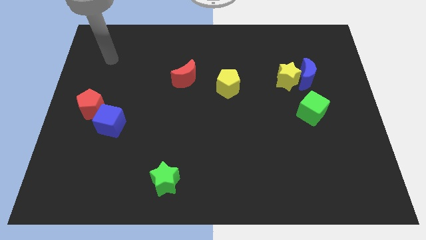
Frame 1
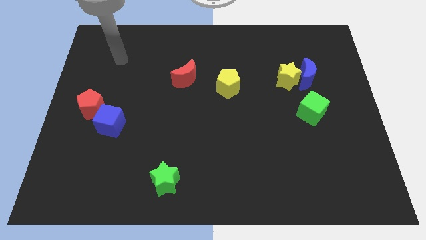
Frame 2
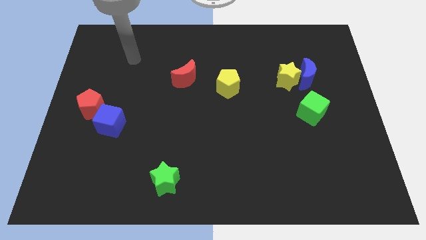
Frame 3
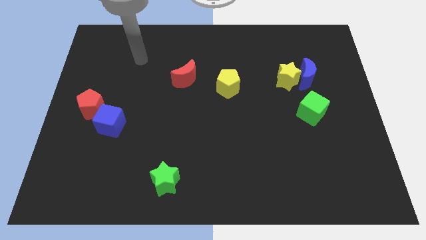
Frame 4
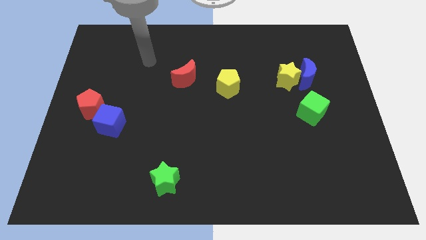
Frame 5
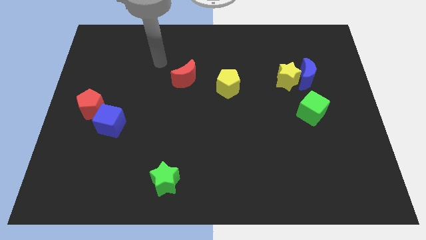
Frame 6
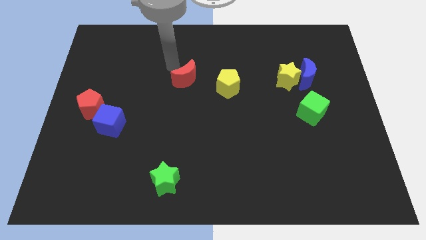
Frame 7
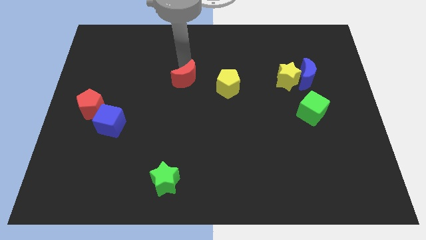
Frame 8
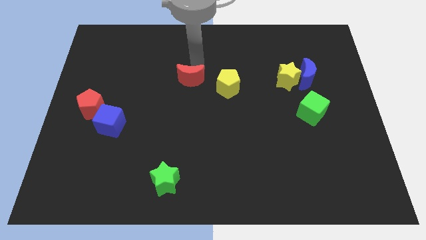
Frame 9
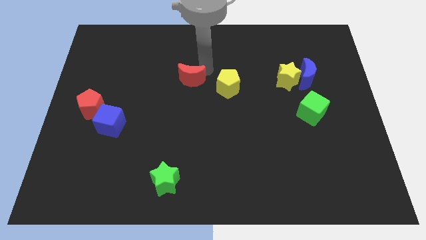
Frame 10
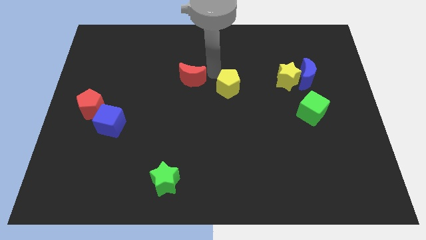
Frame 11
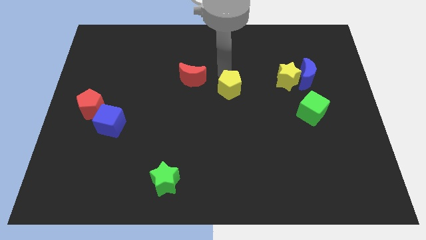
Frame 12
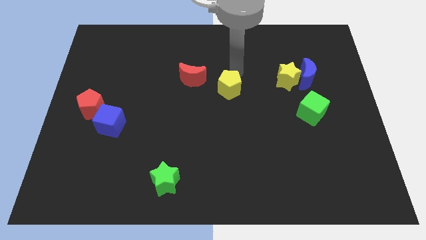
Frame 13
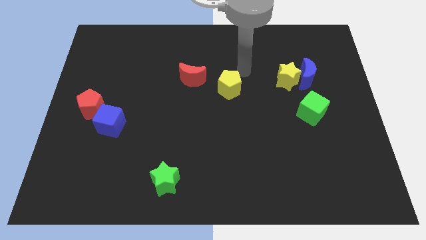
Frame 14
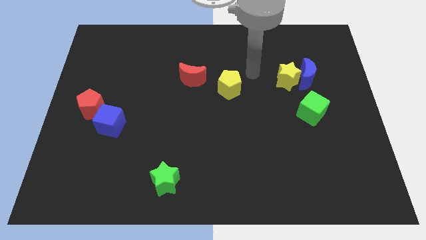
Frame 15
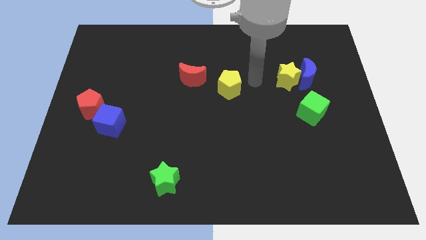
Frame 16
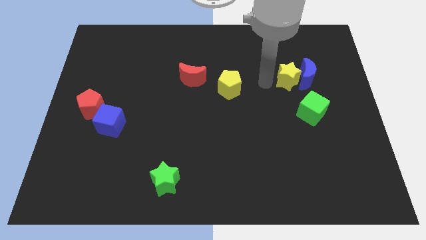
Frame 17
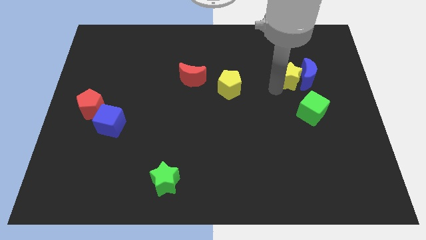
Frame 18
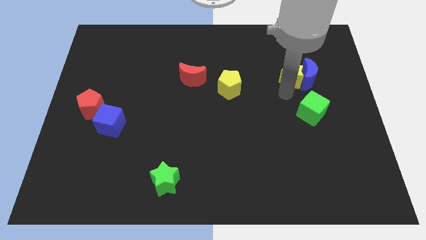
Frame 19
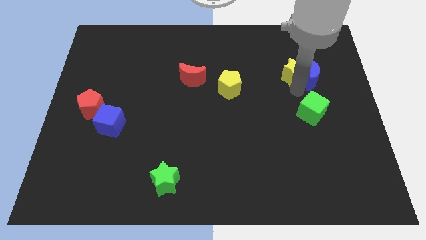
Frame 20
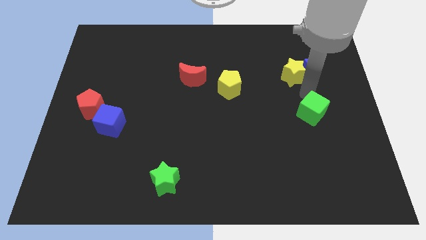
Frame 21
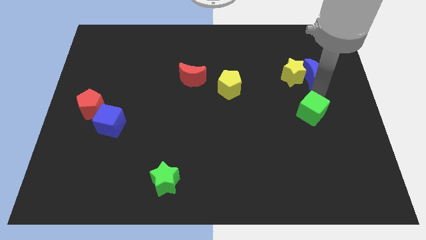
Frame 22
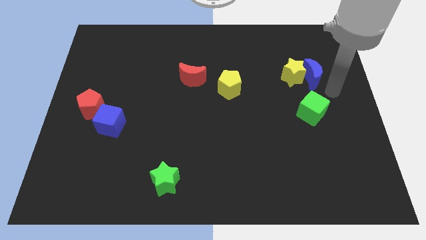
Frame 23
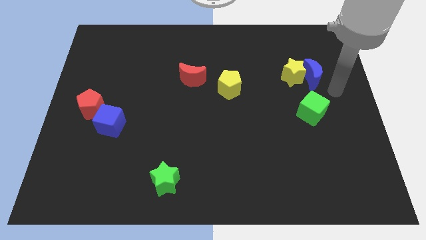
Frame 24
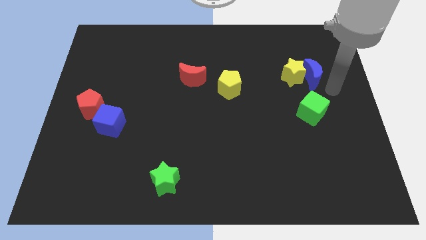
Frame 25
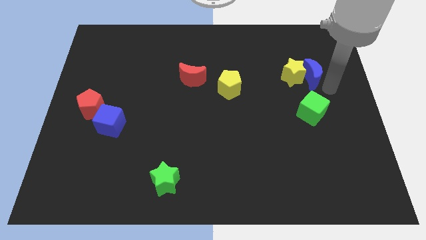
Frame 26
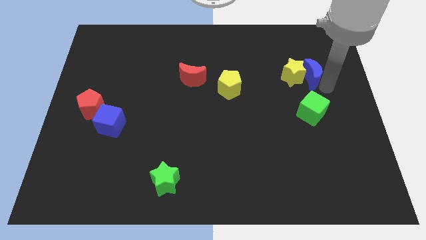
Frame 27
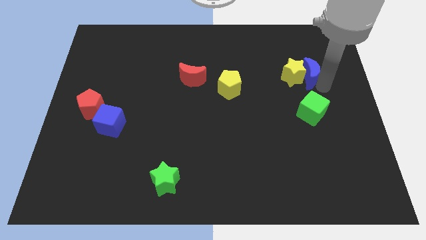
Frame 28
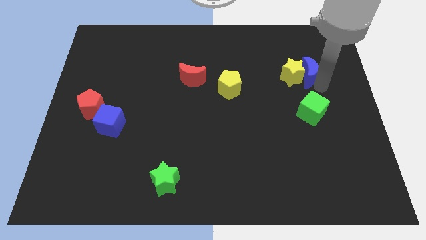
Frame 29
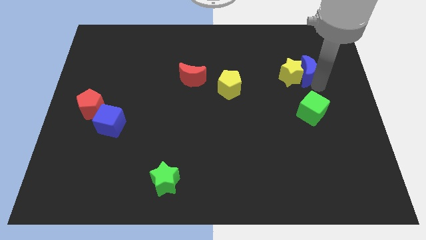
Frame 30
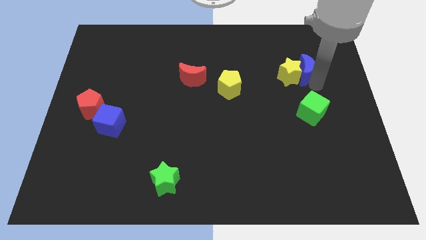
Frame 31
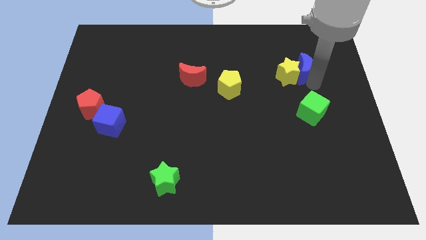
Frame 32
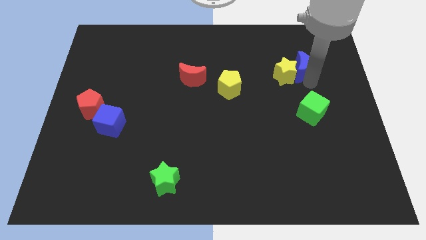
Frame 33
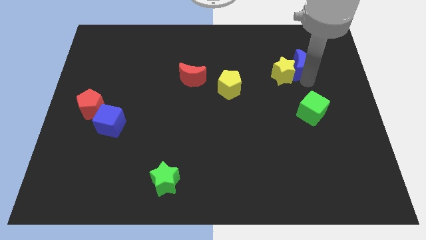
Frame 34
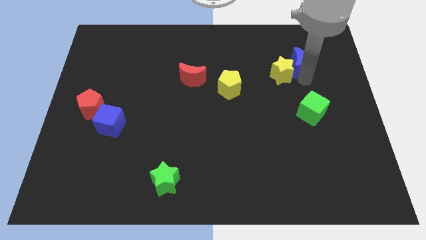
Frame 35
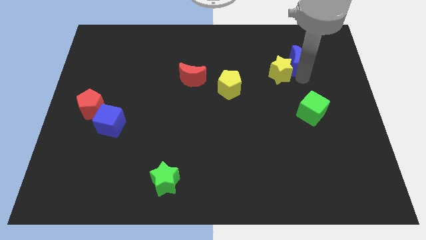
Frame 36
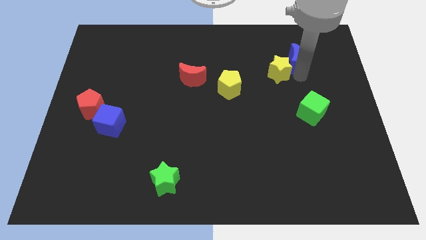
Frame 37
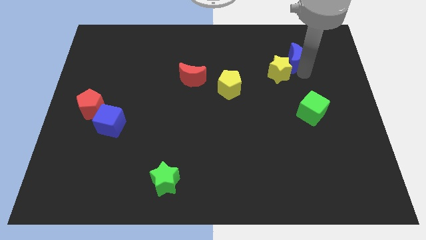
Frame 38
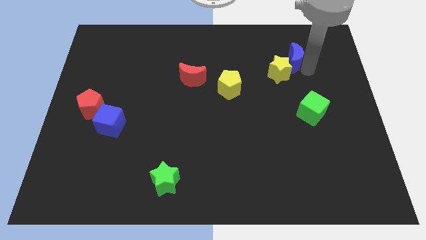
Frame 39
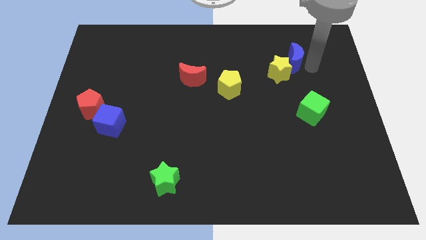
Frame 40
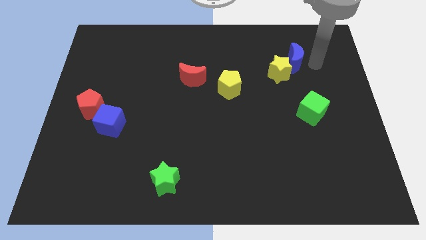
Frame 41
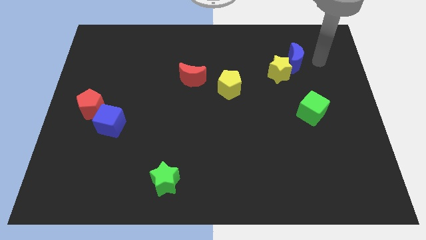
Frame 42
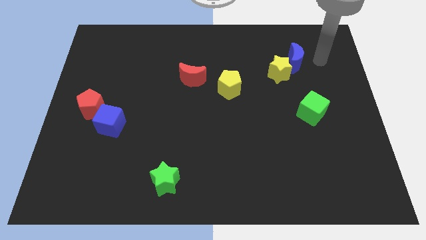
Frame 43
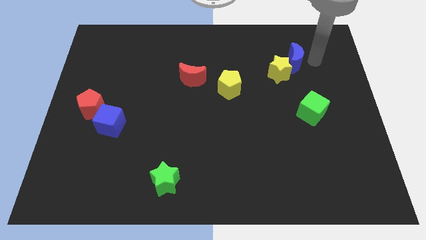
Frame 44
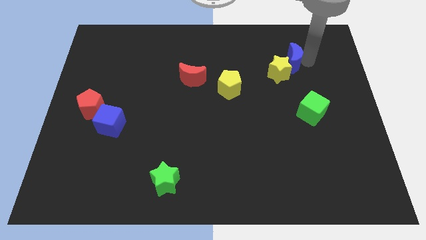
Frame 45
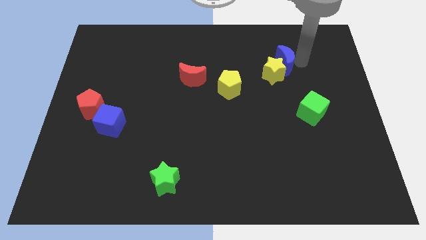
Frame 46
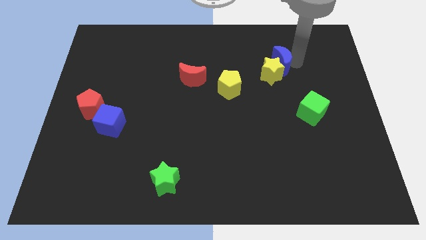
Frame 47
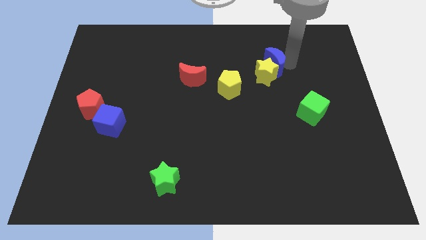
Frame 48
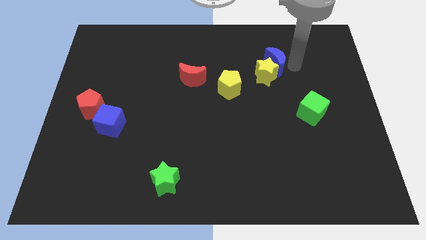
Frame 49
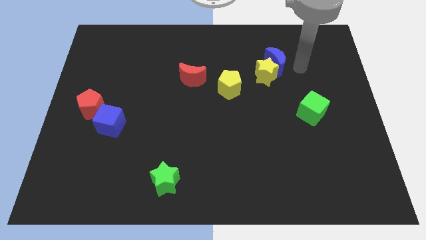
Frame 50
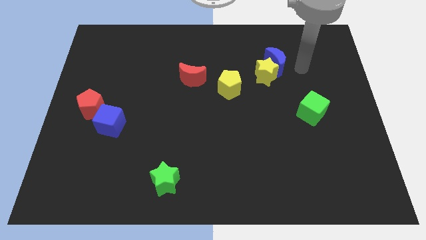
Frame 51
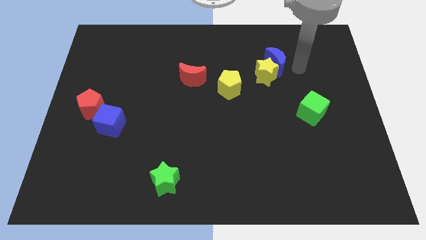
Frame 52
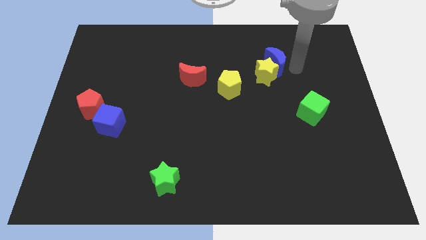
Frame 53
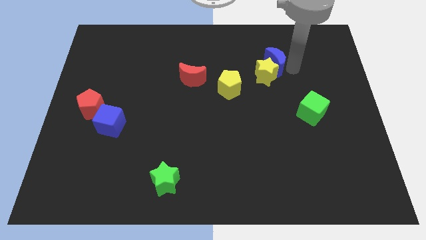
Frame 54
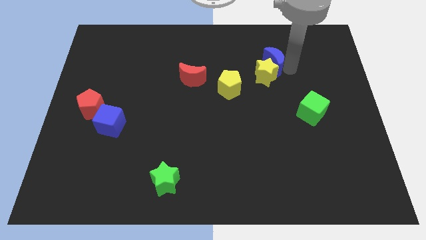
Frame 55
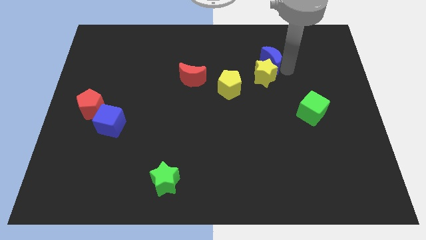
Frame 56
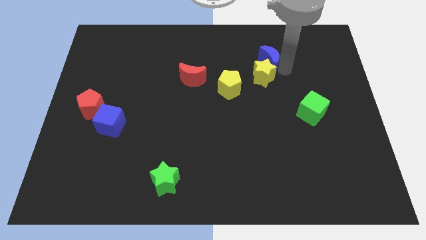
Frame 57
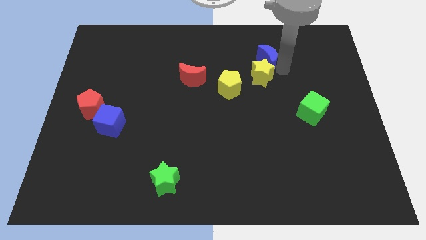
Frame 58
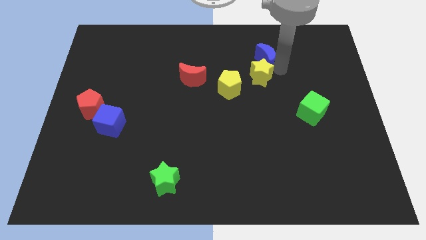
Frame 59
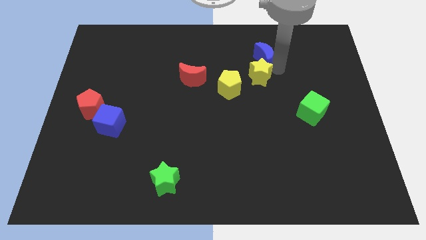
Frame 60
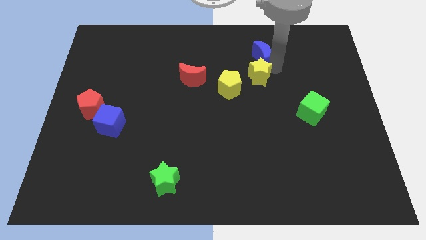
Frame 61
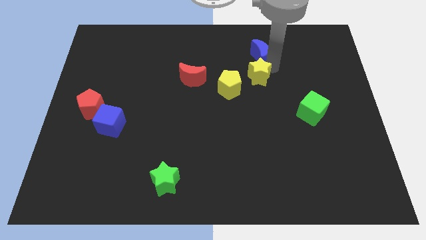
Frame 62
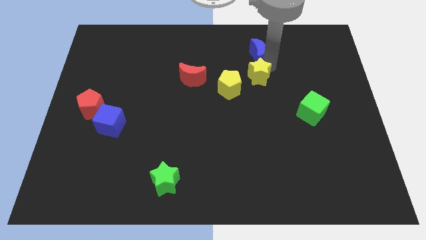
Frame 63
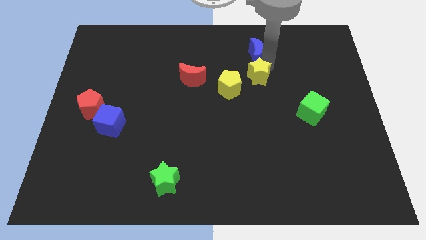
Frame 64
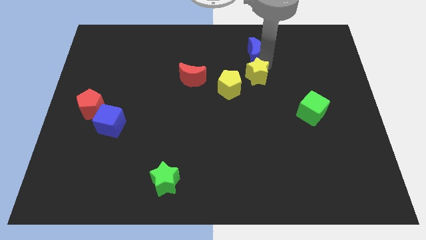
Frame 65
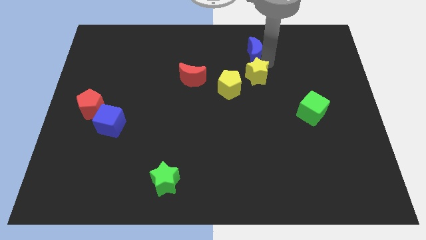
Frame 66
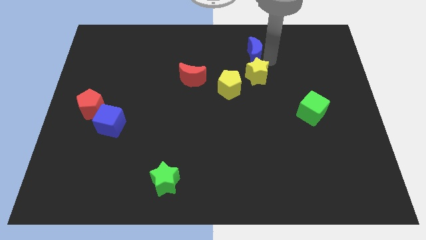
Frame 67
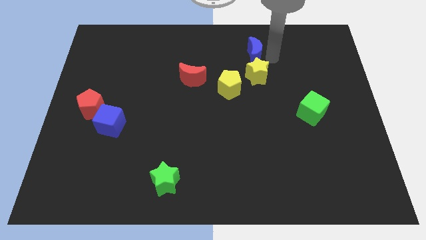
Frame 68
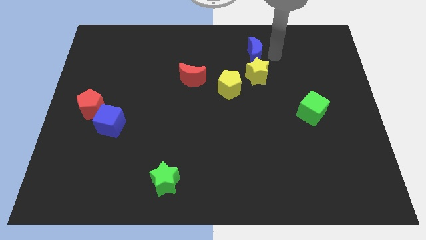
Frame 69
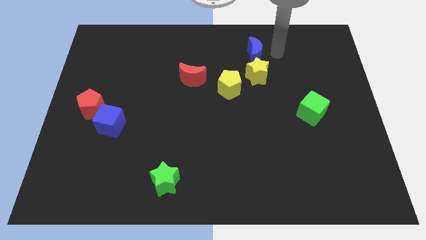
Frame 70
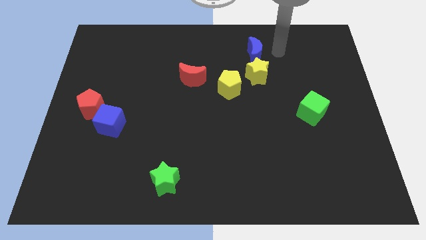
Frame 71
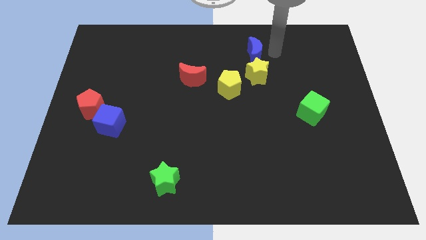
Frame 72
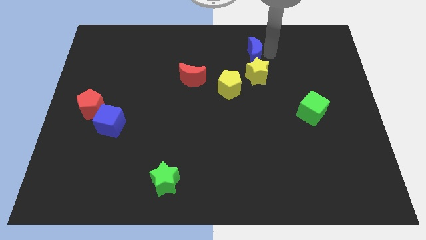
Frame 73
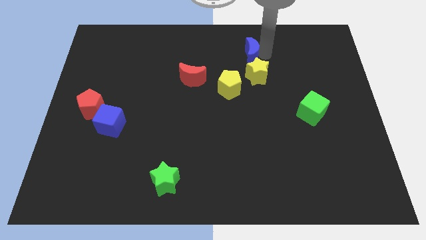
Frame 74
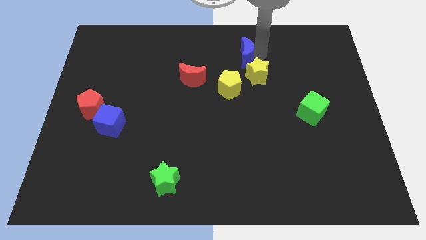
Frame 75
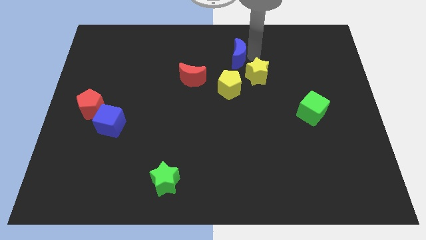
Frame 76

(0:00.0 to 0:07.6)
push the blue moon above the yellow pentagon
